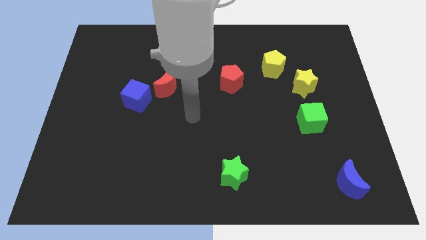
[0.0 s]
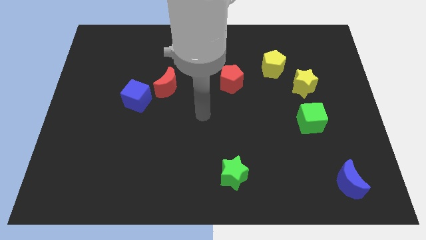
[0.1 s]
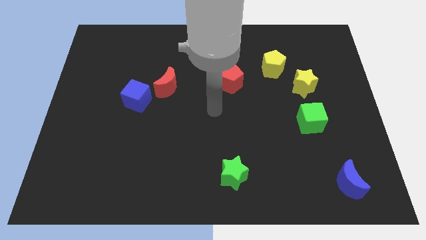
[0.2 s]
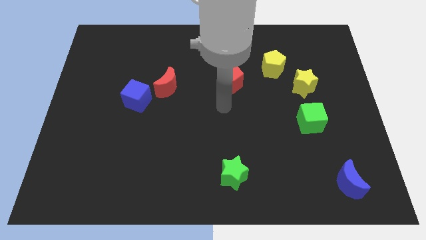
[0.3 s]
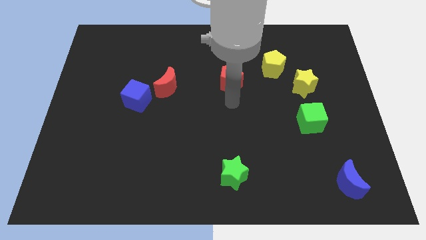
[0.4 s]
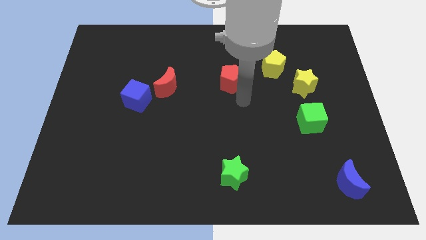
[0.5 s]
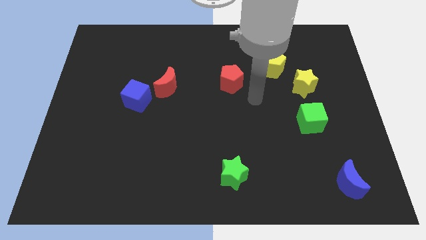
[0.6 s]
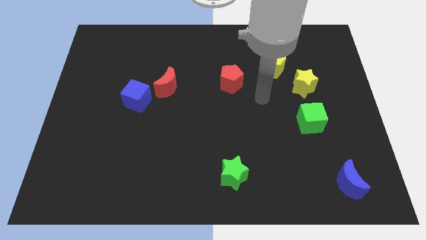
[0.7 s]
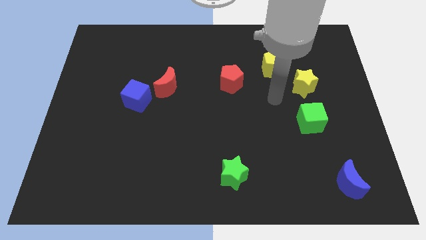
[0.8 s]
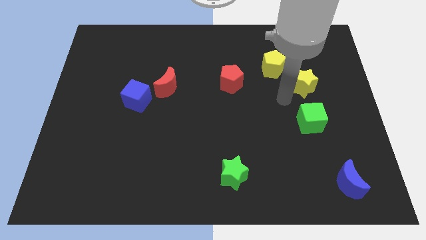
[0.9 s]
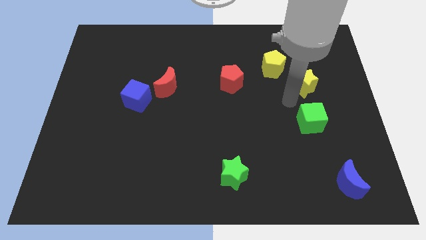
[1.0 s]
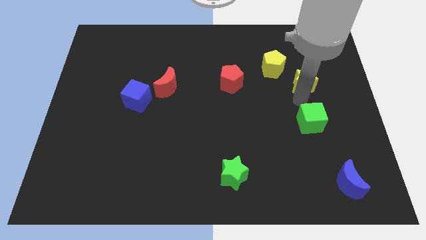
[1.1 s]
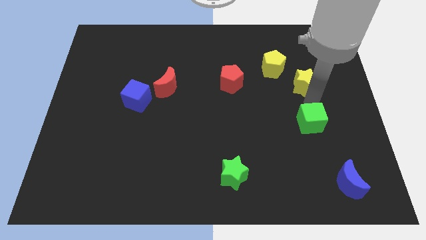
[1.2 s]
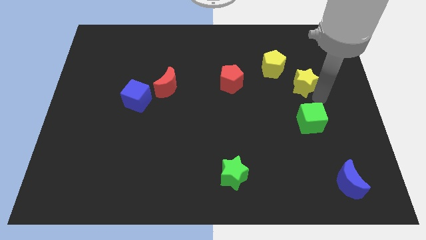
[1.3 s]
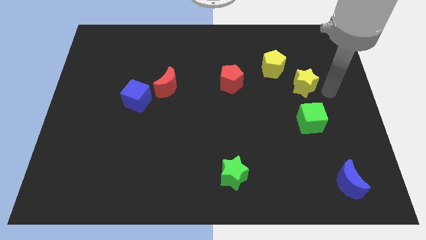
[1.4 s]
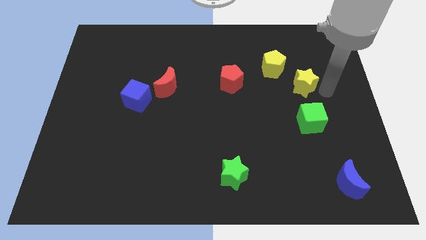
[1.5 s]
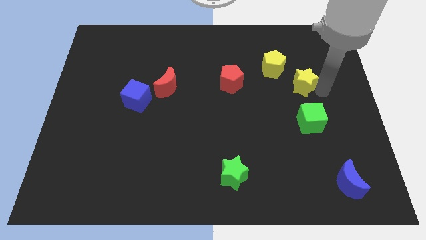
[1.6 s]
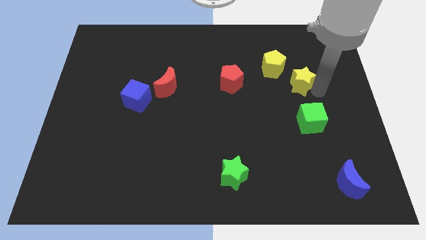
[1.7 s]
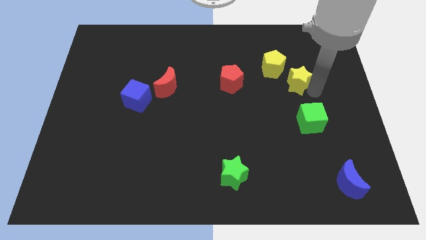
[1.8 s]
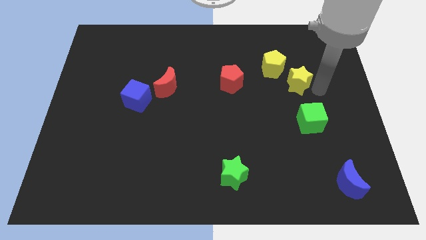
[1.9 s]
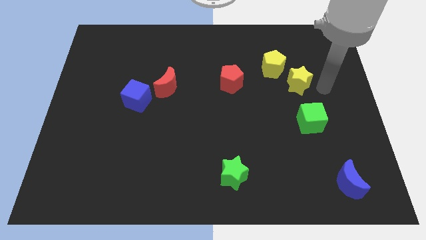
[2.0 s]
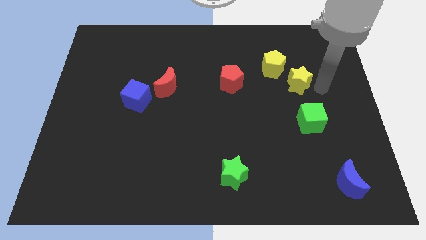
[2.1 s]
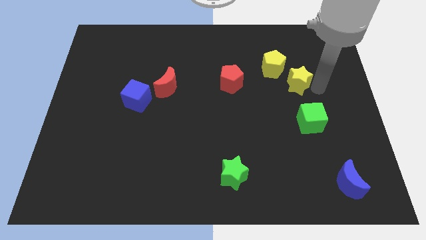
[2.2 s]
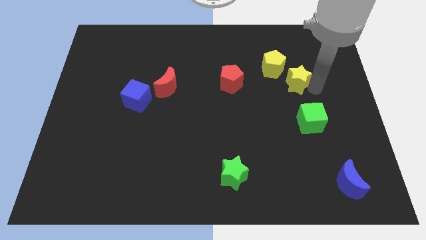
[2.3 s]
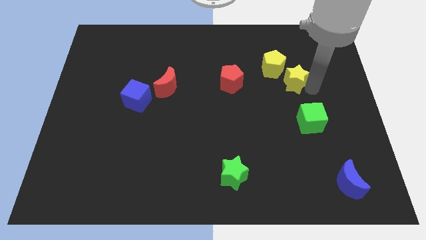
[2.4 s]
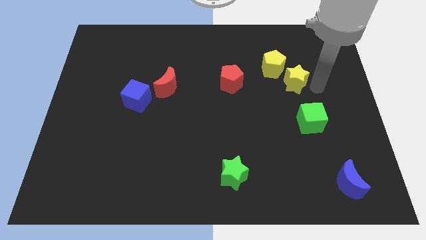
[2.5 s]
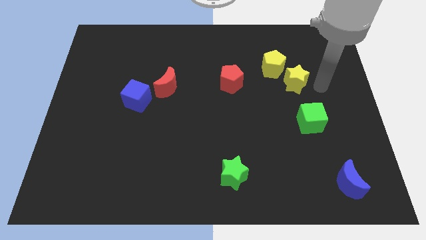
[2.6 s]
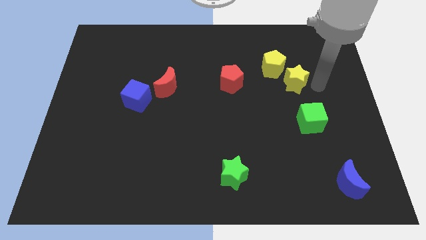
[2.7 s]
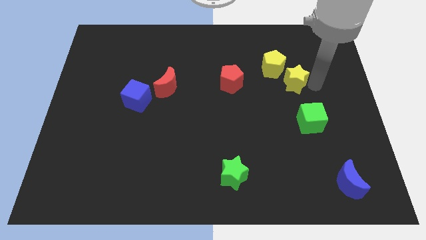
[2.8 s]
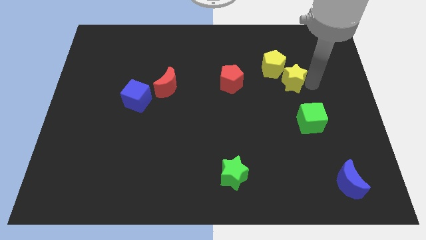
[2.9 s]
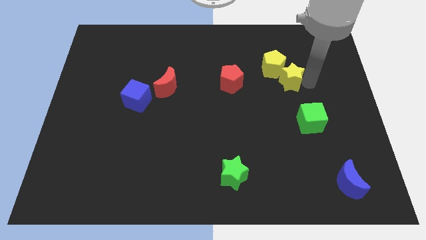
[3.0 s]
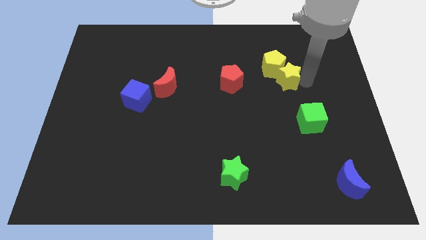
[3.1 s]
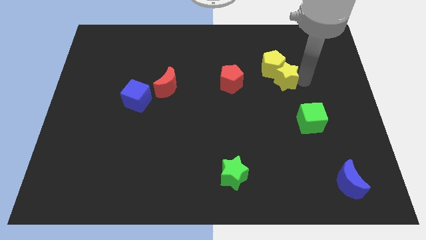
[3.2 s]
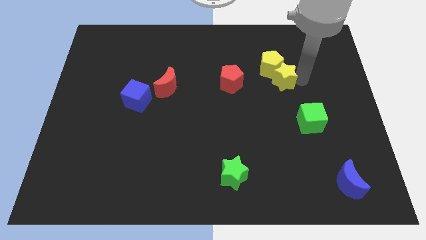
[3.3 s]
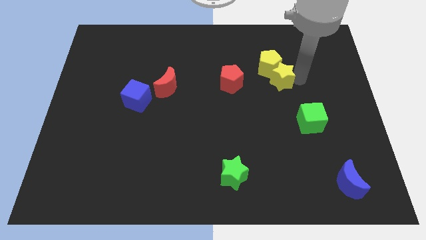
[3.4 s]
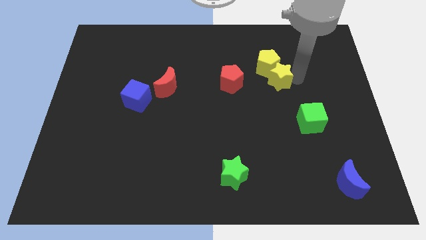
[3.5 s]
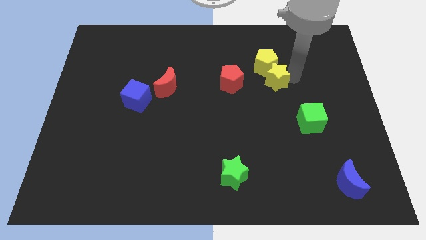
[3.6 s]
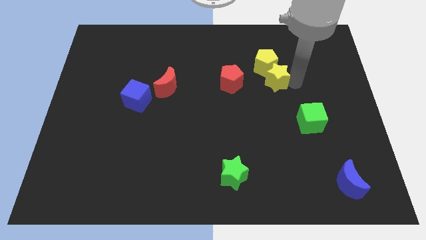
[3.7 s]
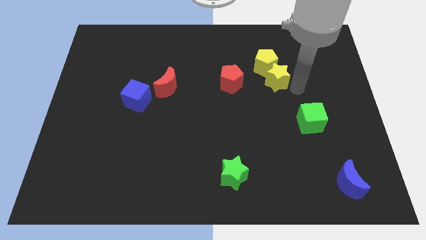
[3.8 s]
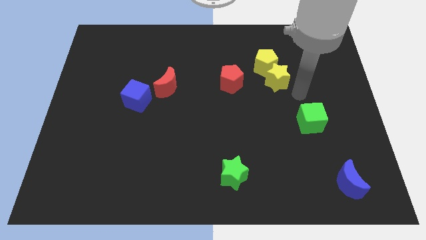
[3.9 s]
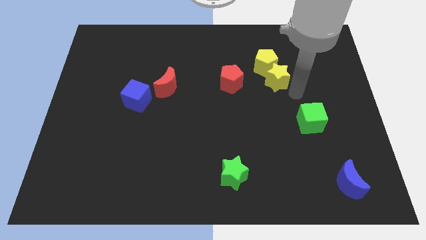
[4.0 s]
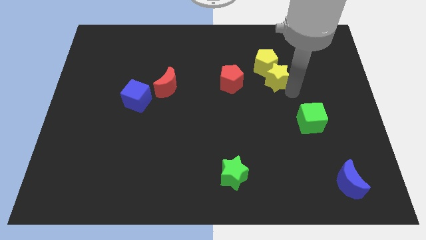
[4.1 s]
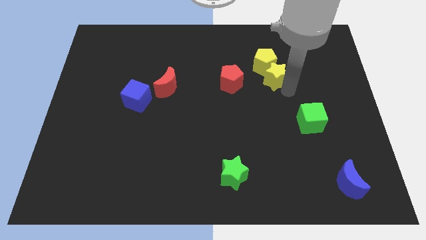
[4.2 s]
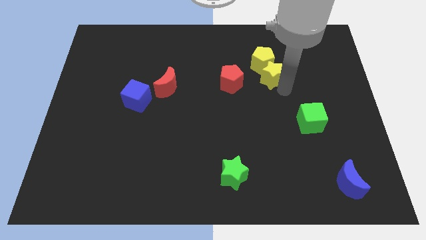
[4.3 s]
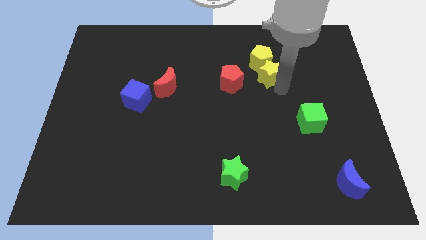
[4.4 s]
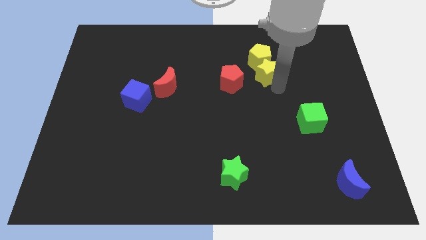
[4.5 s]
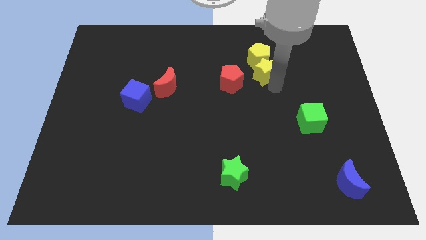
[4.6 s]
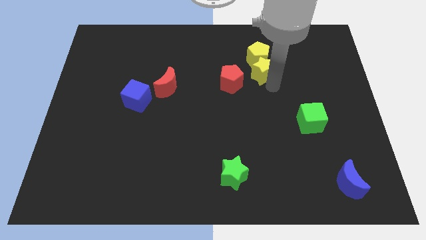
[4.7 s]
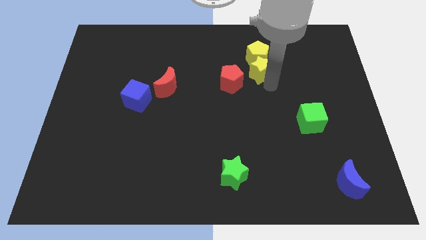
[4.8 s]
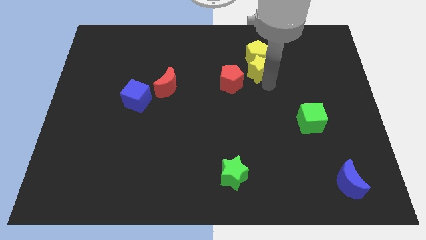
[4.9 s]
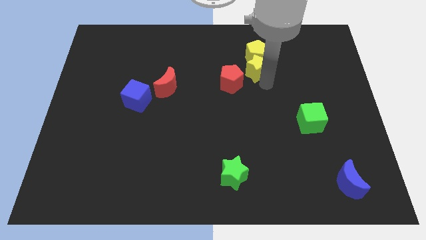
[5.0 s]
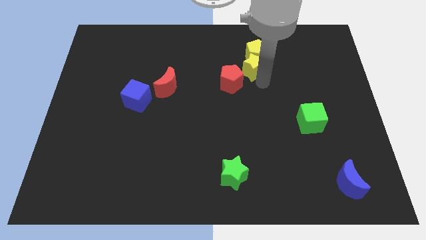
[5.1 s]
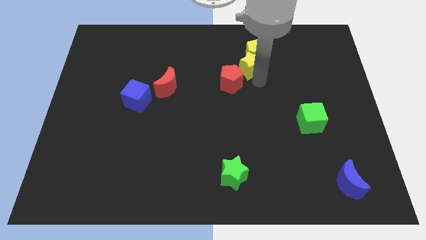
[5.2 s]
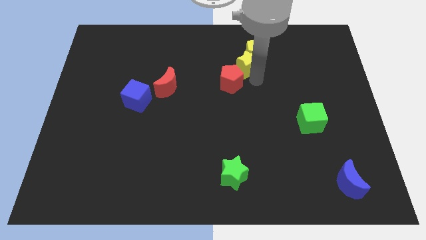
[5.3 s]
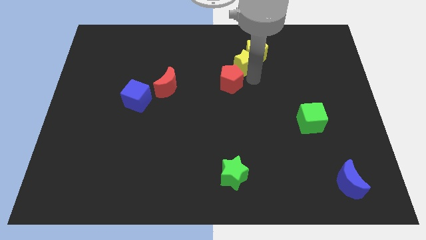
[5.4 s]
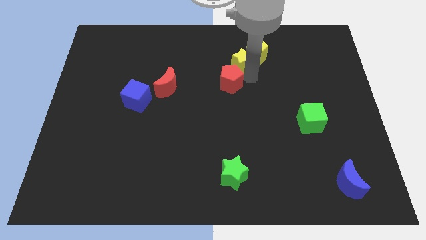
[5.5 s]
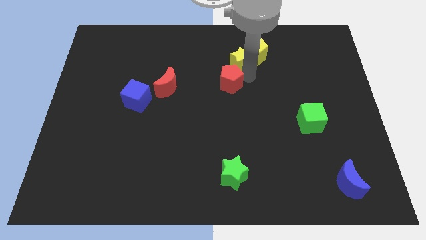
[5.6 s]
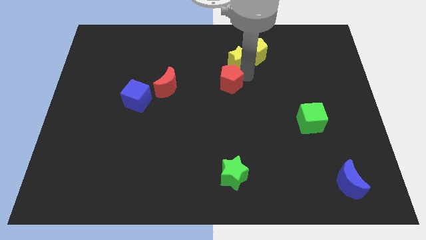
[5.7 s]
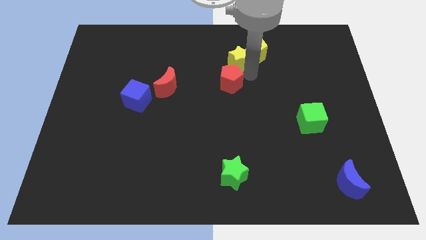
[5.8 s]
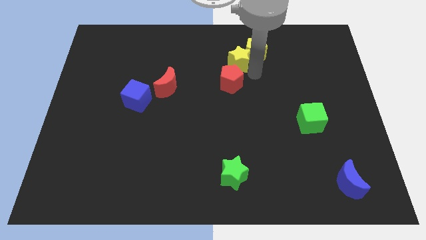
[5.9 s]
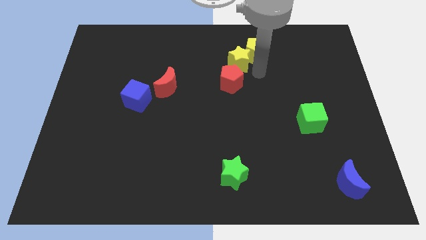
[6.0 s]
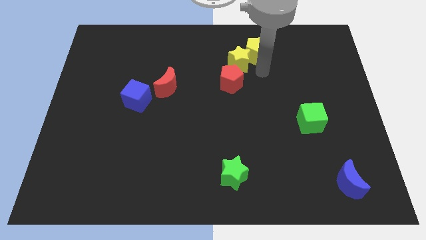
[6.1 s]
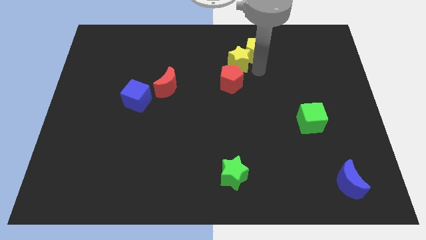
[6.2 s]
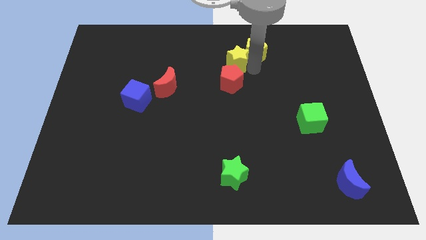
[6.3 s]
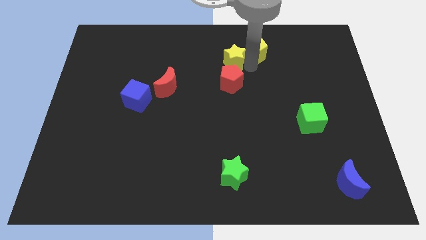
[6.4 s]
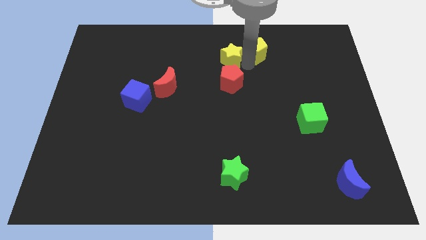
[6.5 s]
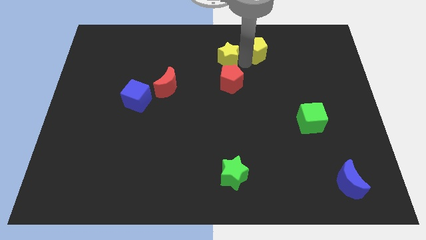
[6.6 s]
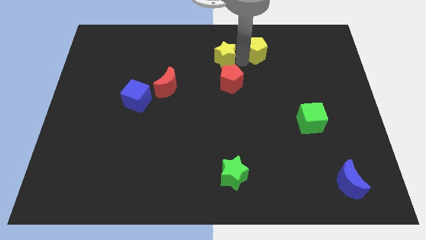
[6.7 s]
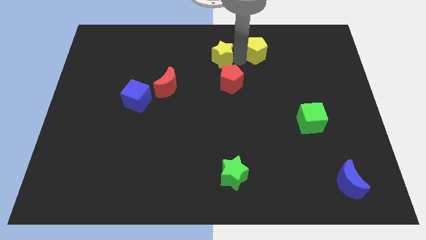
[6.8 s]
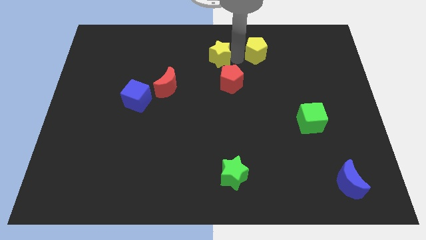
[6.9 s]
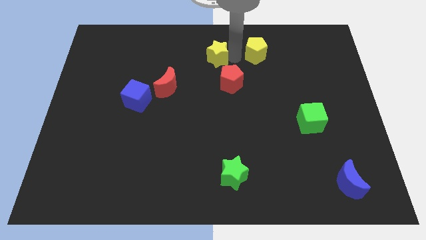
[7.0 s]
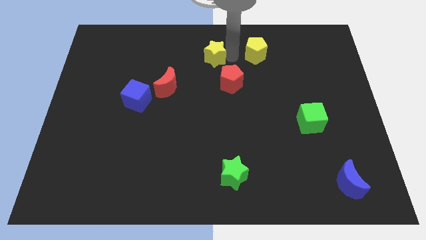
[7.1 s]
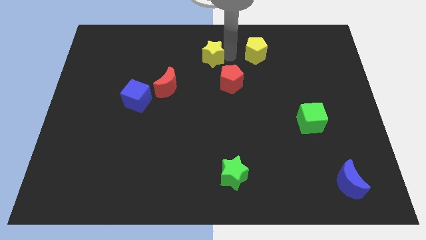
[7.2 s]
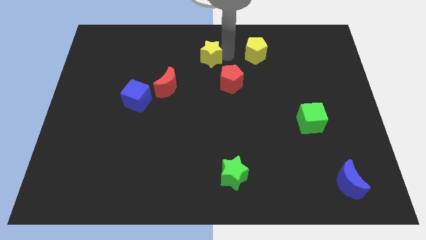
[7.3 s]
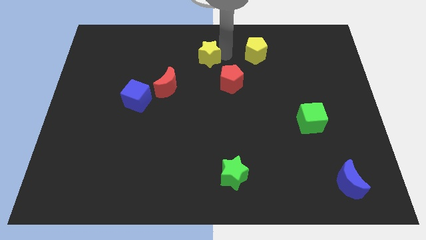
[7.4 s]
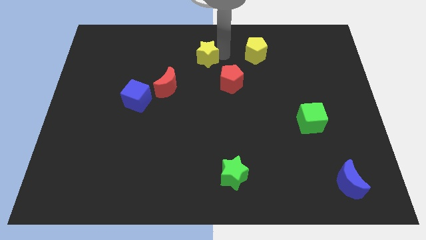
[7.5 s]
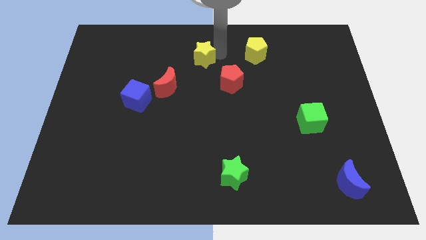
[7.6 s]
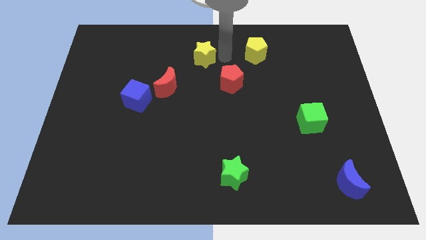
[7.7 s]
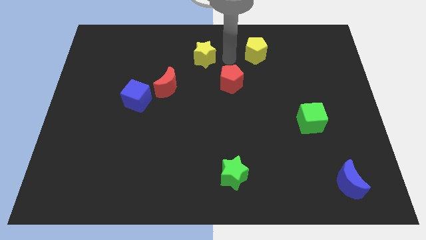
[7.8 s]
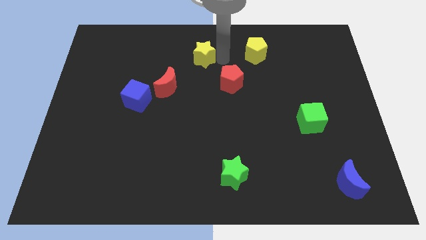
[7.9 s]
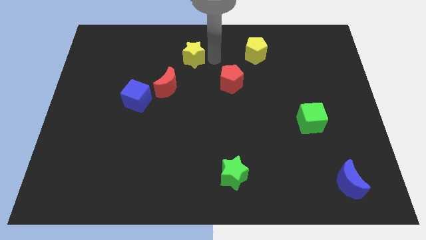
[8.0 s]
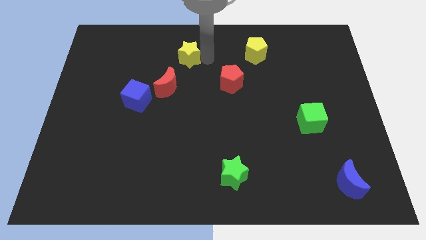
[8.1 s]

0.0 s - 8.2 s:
put the yellow star to the top side of the red moon
